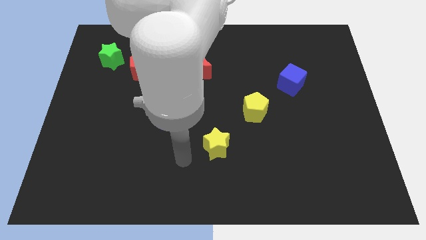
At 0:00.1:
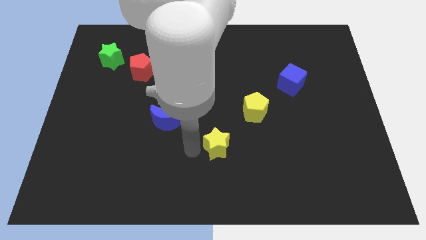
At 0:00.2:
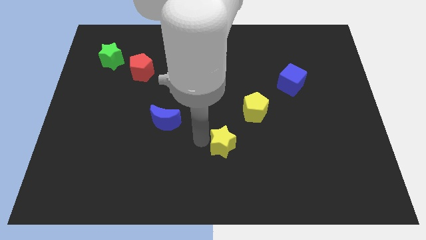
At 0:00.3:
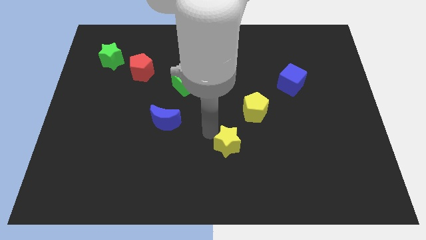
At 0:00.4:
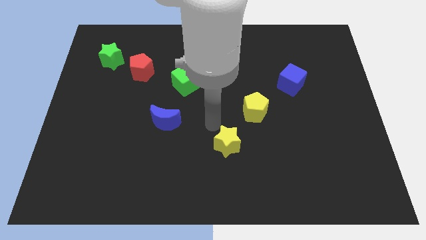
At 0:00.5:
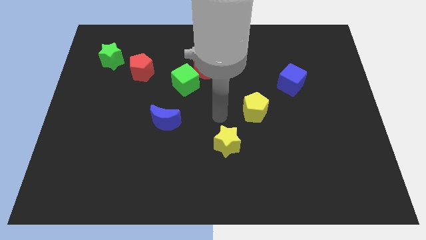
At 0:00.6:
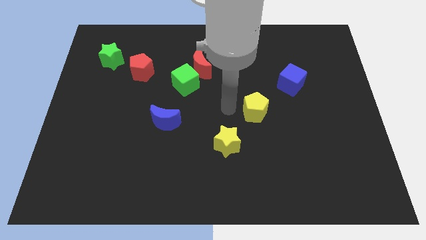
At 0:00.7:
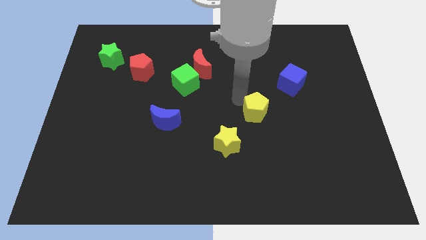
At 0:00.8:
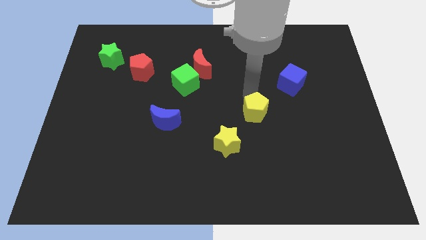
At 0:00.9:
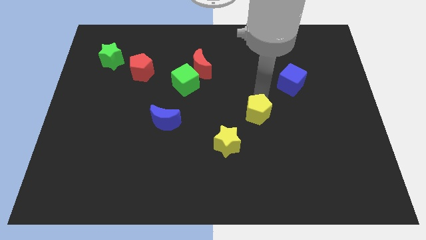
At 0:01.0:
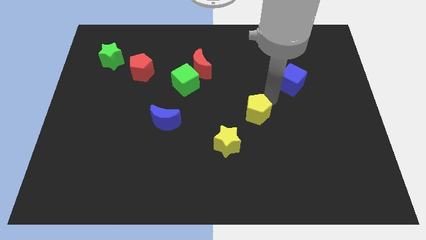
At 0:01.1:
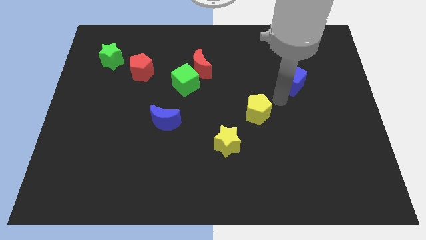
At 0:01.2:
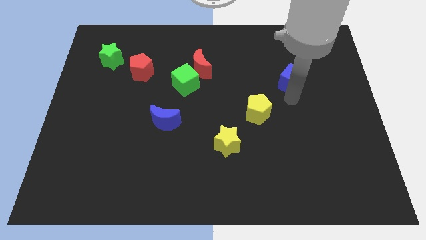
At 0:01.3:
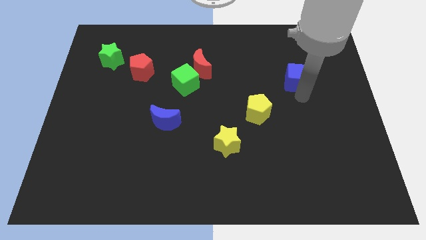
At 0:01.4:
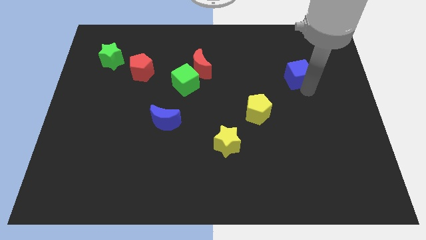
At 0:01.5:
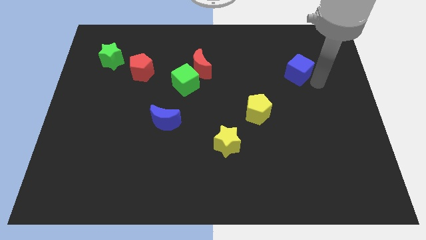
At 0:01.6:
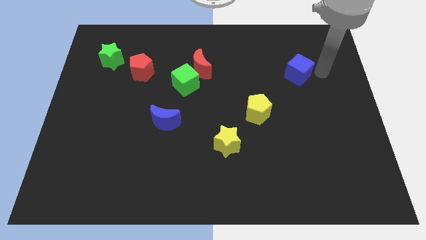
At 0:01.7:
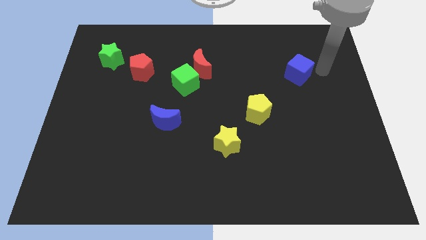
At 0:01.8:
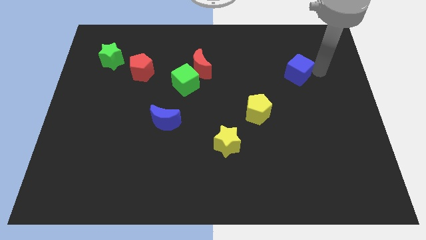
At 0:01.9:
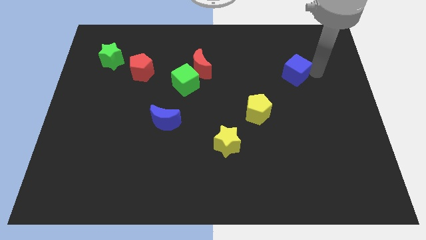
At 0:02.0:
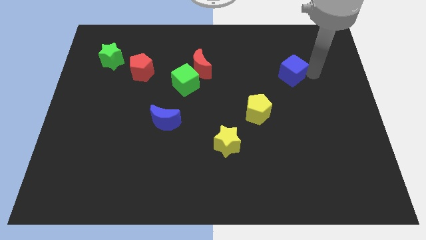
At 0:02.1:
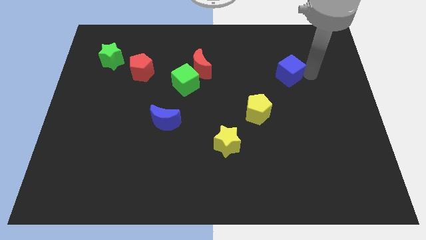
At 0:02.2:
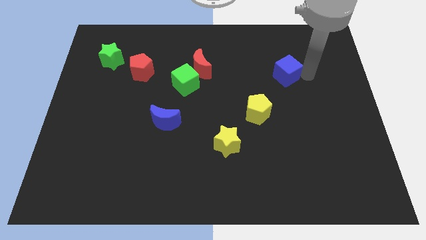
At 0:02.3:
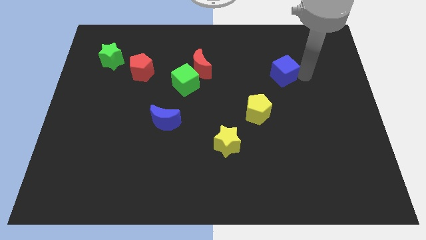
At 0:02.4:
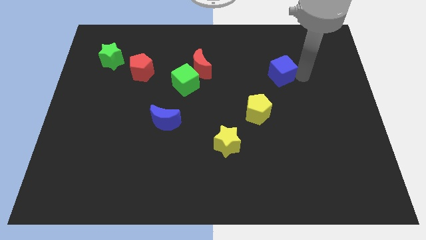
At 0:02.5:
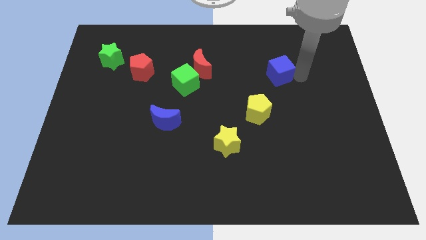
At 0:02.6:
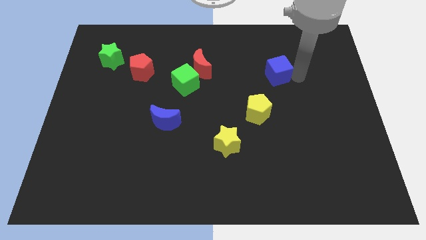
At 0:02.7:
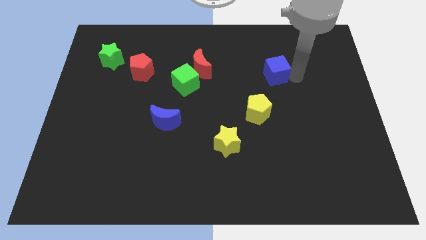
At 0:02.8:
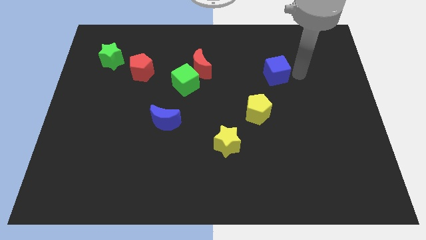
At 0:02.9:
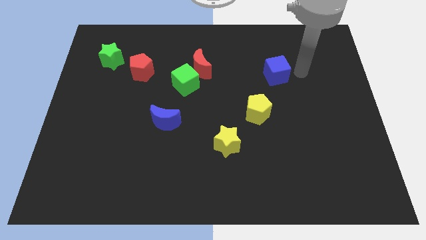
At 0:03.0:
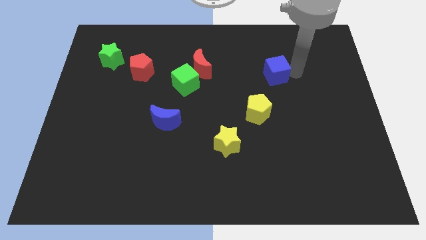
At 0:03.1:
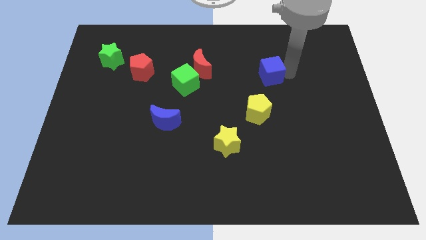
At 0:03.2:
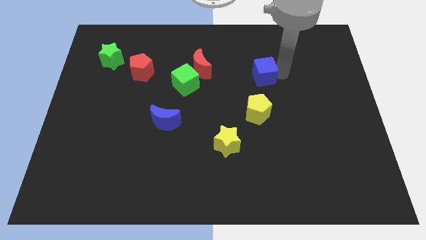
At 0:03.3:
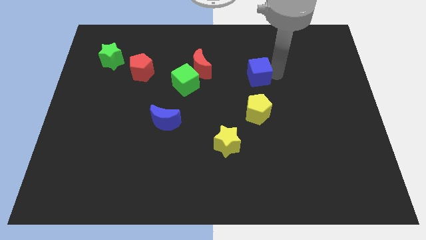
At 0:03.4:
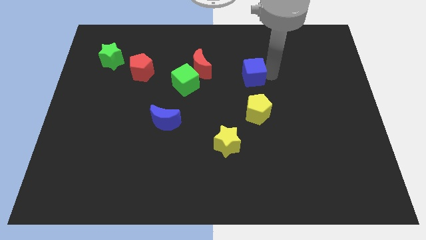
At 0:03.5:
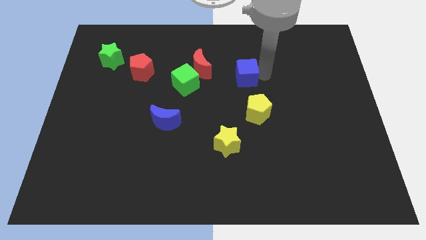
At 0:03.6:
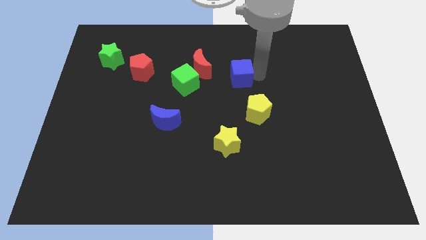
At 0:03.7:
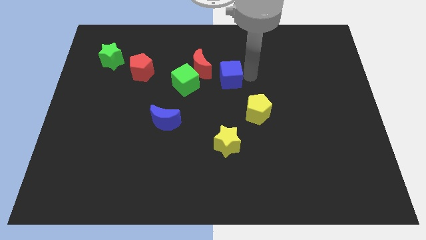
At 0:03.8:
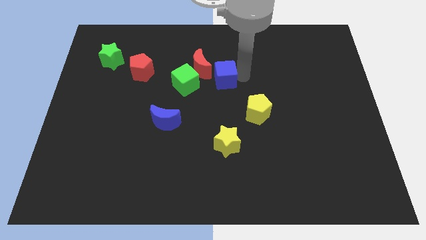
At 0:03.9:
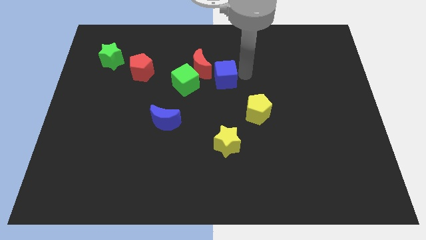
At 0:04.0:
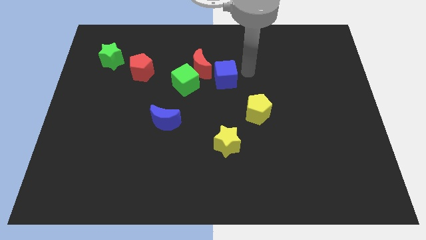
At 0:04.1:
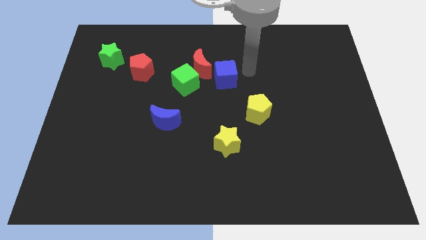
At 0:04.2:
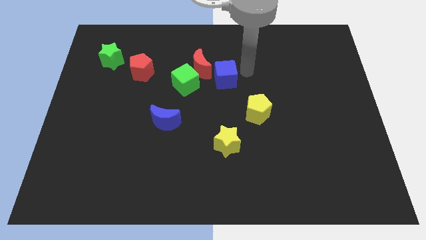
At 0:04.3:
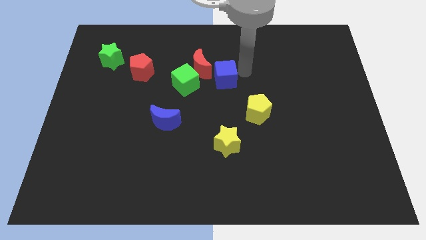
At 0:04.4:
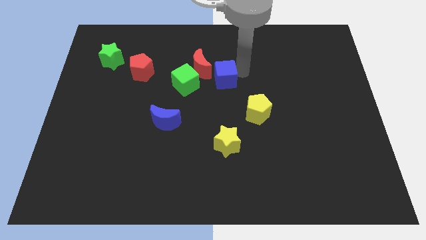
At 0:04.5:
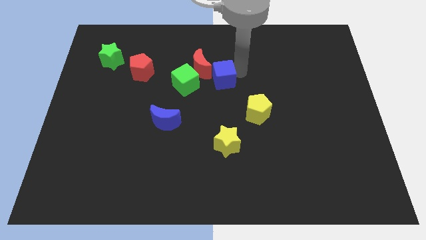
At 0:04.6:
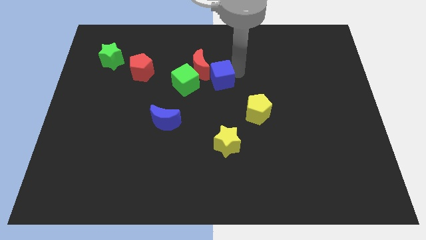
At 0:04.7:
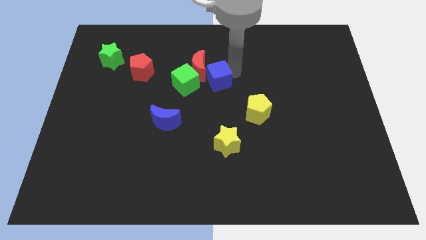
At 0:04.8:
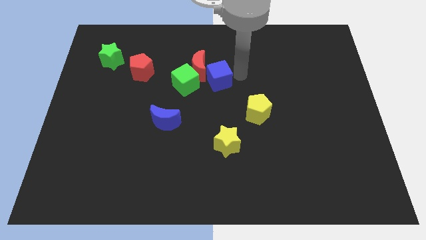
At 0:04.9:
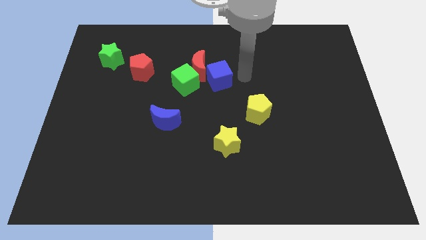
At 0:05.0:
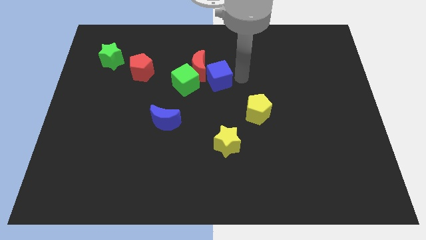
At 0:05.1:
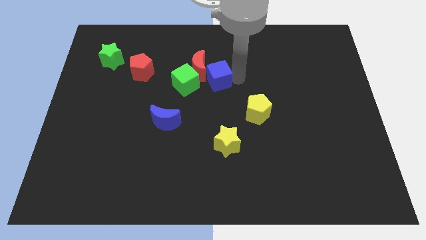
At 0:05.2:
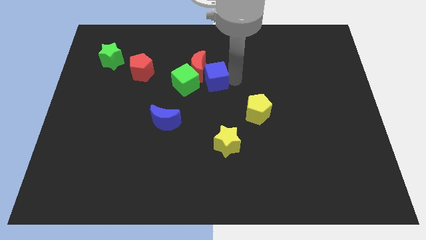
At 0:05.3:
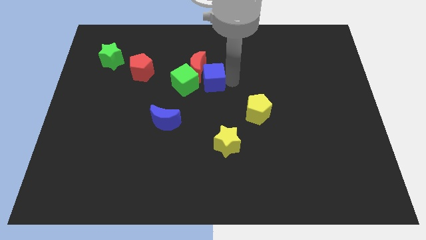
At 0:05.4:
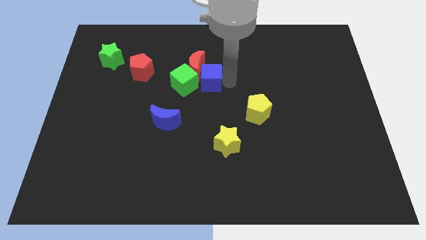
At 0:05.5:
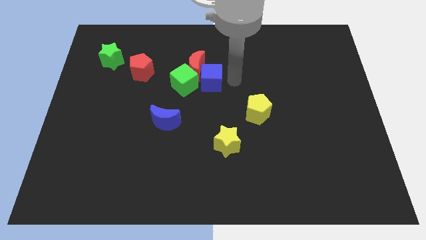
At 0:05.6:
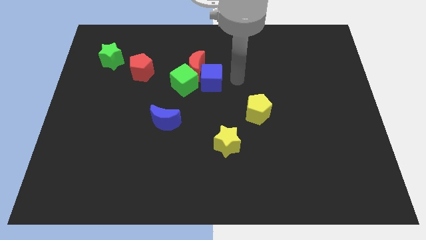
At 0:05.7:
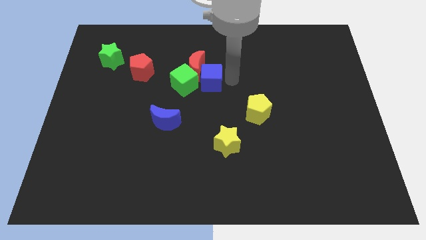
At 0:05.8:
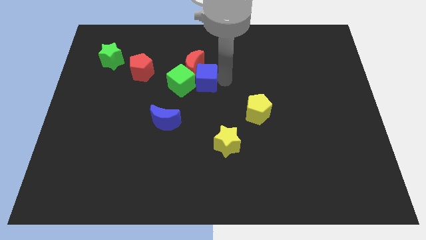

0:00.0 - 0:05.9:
push the blue cube next to the green cube

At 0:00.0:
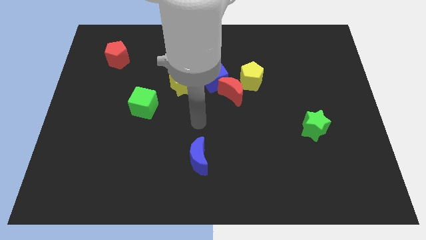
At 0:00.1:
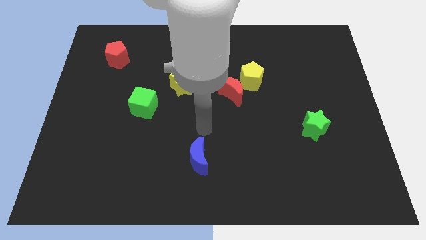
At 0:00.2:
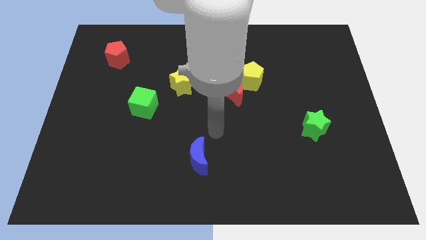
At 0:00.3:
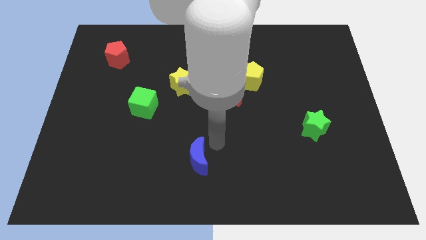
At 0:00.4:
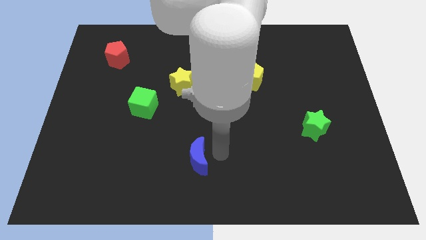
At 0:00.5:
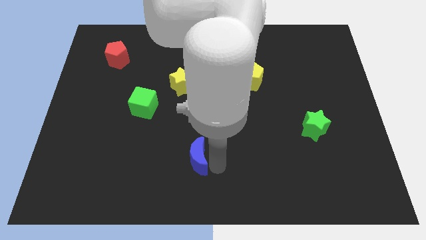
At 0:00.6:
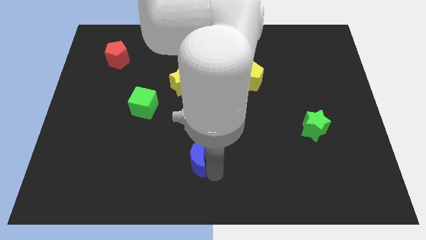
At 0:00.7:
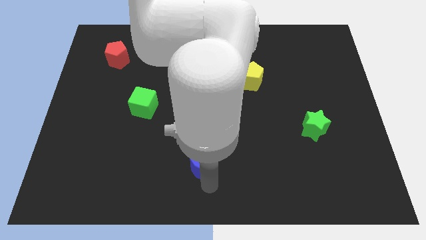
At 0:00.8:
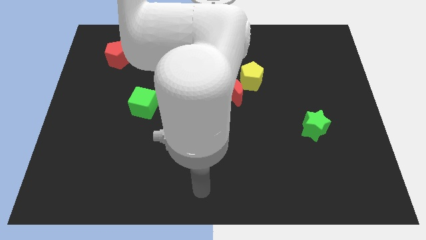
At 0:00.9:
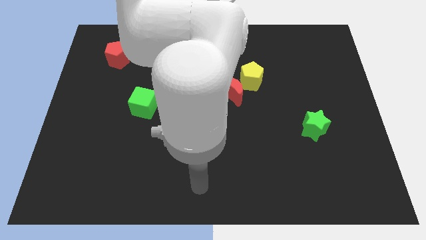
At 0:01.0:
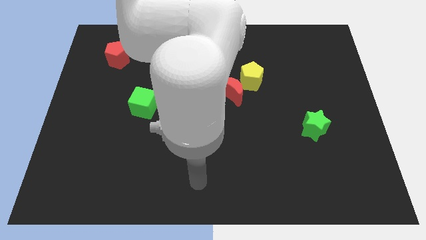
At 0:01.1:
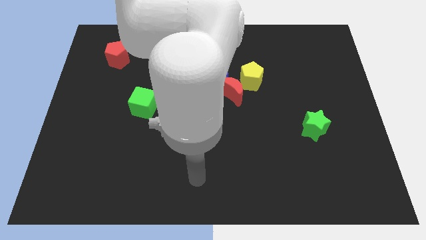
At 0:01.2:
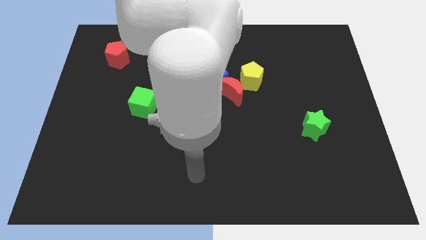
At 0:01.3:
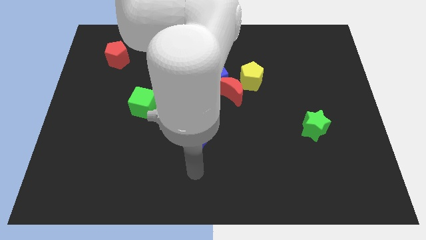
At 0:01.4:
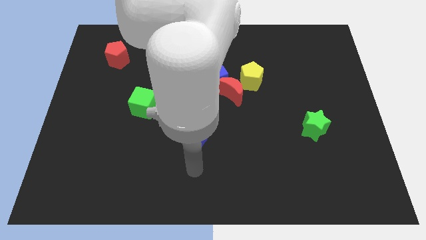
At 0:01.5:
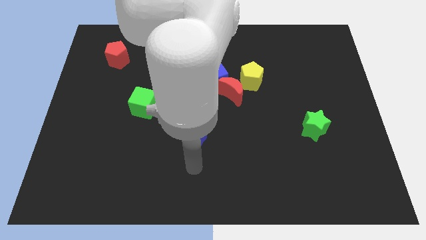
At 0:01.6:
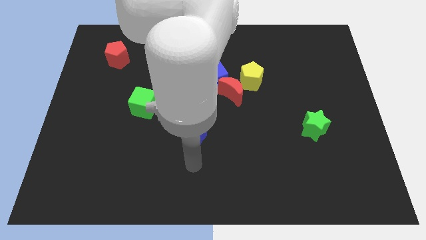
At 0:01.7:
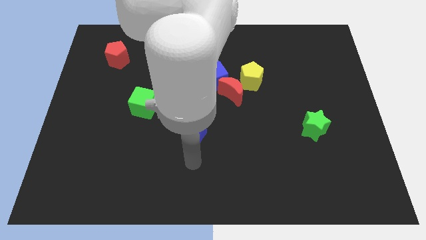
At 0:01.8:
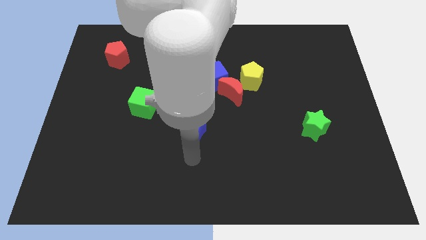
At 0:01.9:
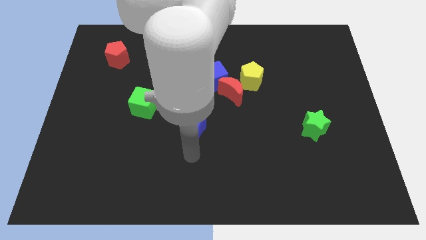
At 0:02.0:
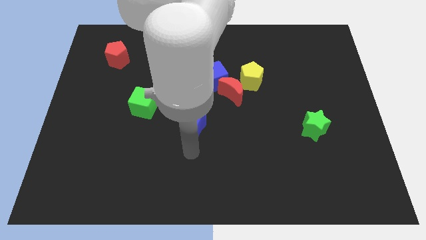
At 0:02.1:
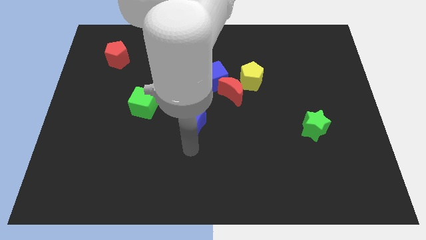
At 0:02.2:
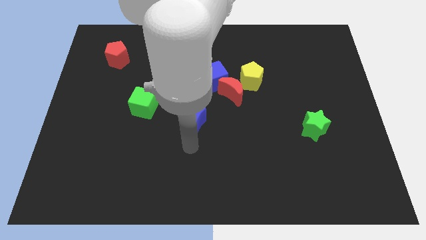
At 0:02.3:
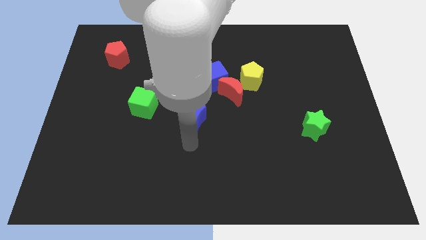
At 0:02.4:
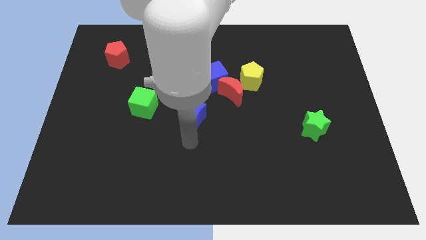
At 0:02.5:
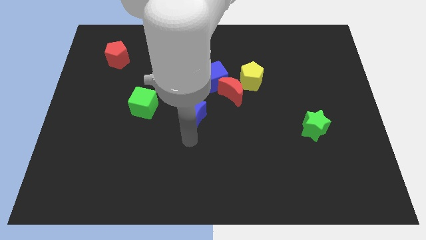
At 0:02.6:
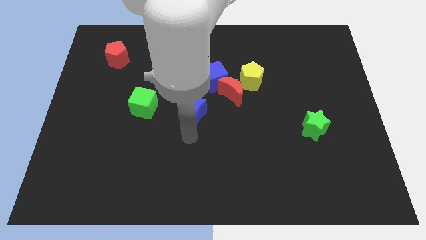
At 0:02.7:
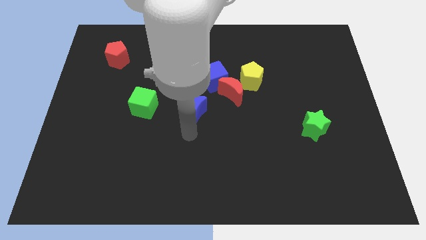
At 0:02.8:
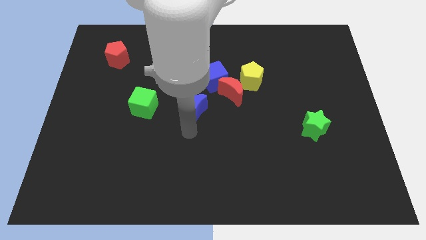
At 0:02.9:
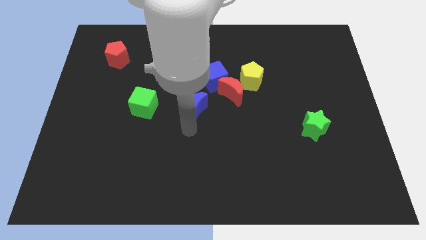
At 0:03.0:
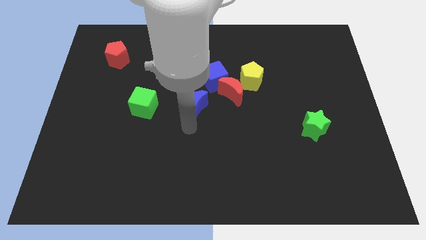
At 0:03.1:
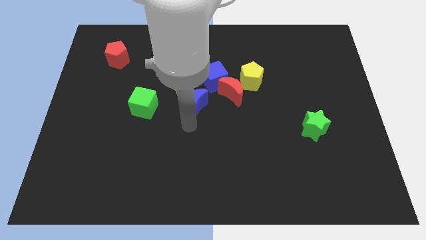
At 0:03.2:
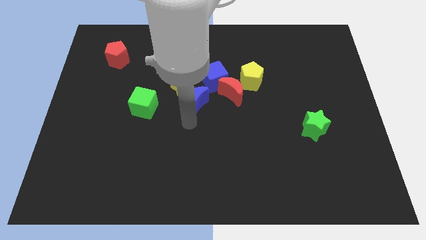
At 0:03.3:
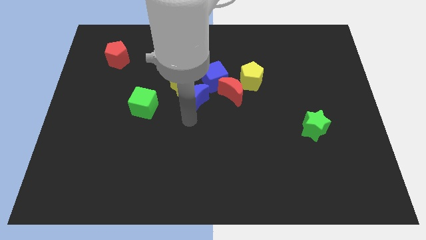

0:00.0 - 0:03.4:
put the blue moon close to the yellow star
